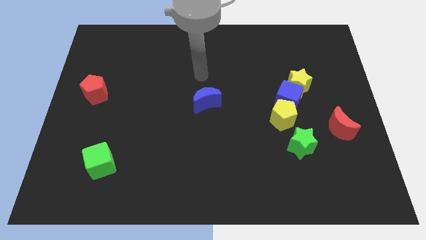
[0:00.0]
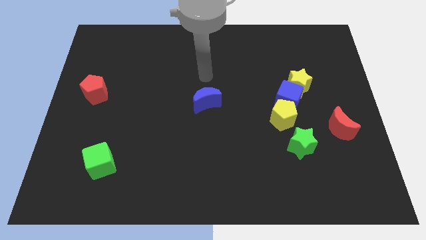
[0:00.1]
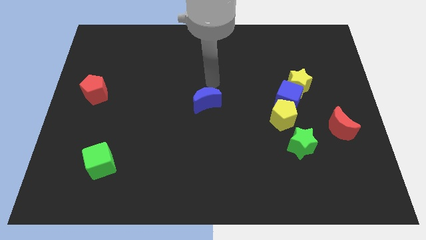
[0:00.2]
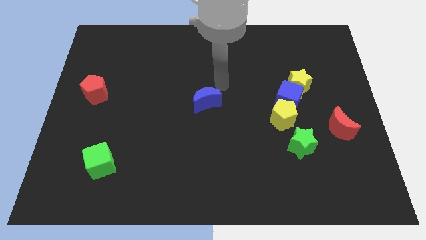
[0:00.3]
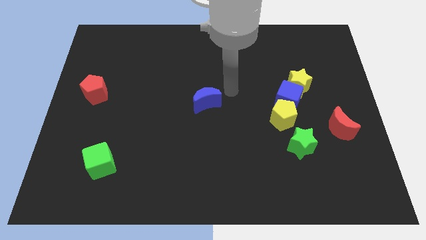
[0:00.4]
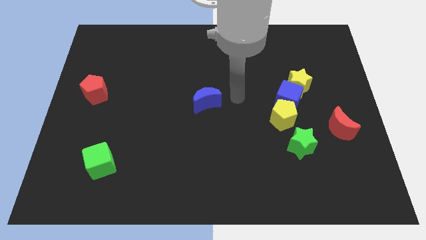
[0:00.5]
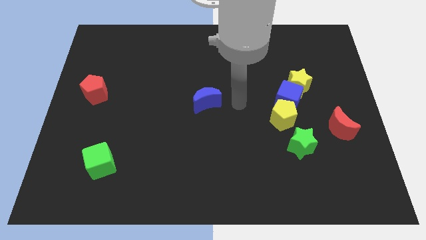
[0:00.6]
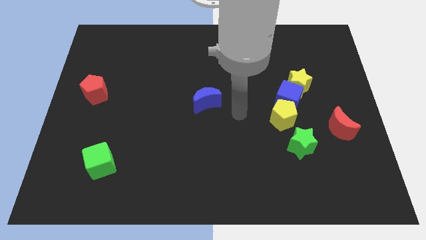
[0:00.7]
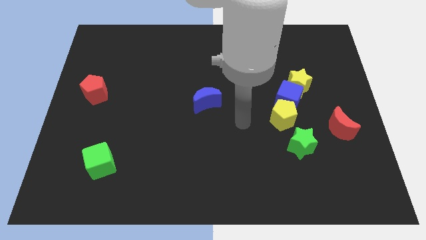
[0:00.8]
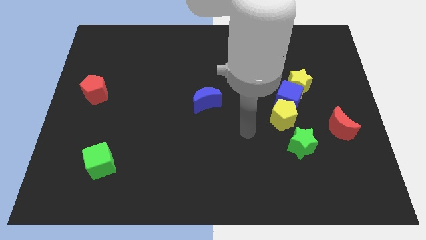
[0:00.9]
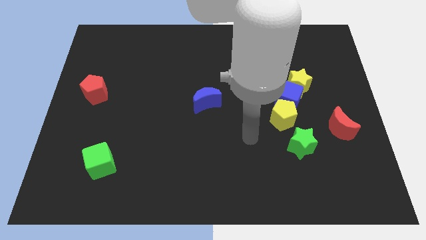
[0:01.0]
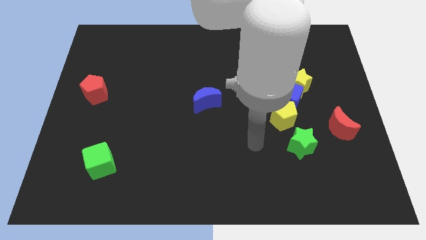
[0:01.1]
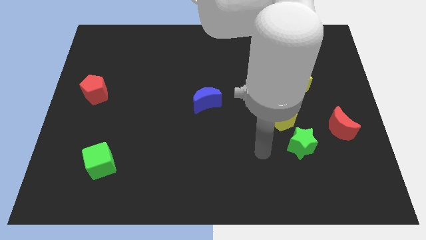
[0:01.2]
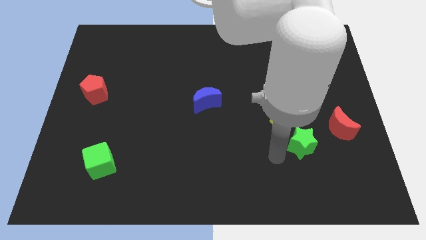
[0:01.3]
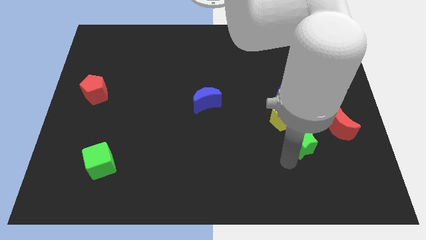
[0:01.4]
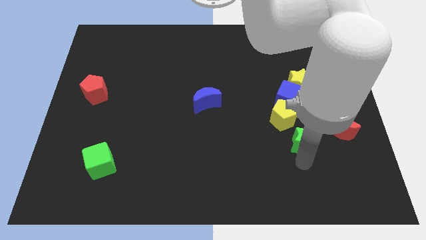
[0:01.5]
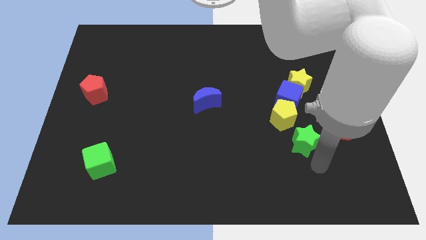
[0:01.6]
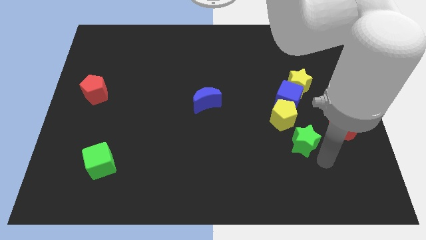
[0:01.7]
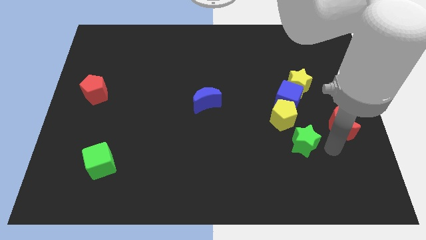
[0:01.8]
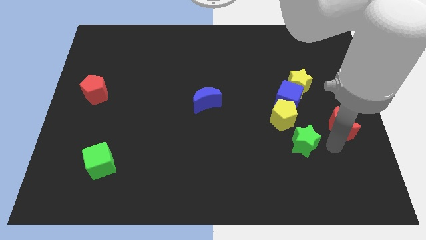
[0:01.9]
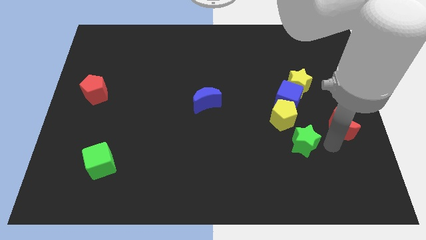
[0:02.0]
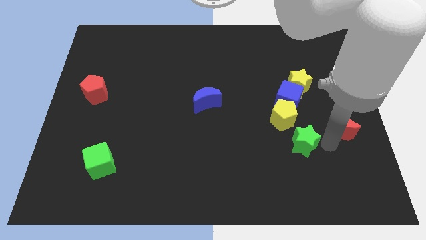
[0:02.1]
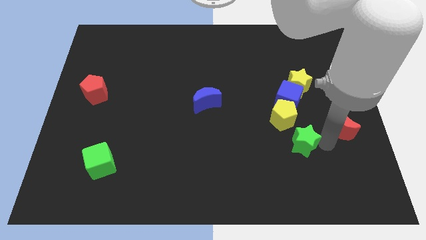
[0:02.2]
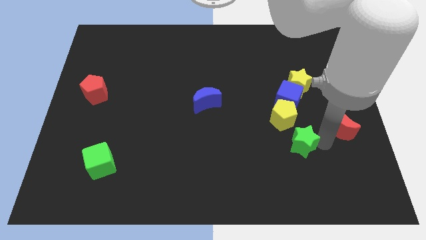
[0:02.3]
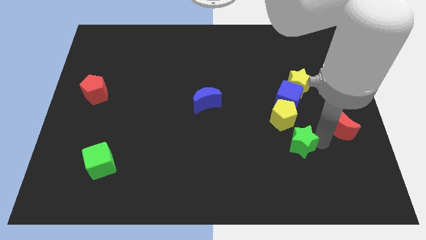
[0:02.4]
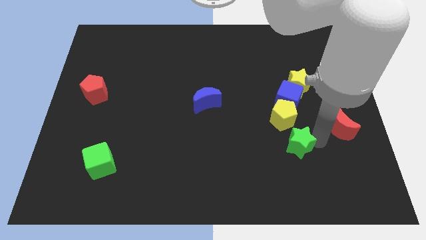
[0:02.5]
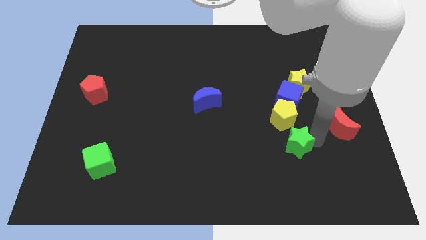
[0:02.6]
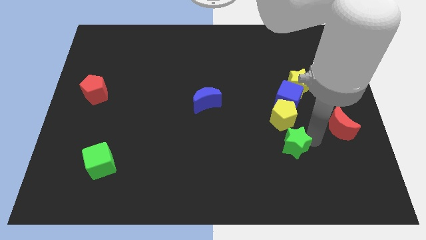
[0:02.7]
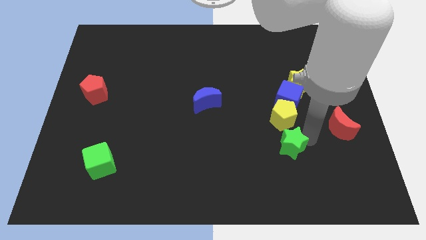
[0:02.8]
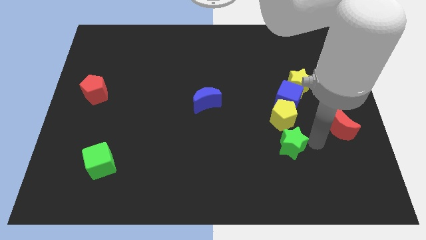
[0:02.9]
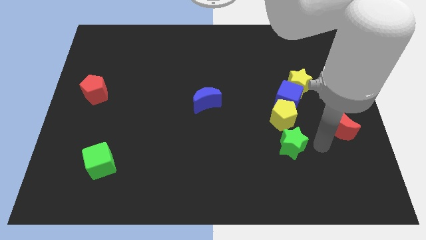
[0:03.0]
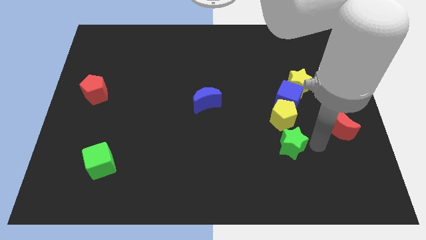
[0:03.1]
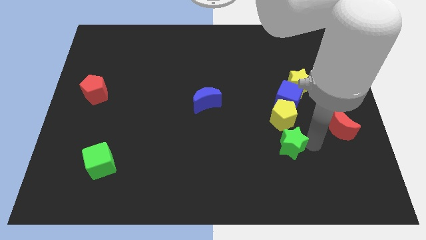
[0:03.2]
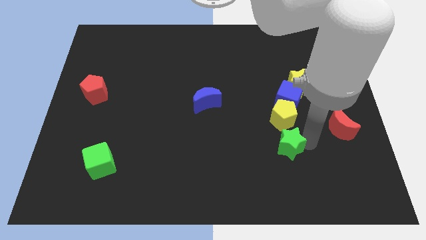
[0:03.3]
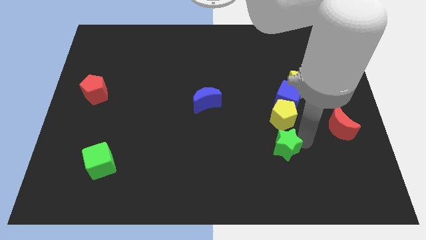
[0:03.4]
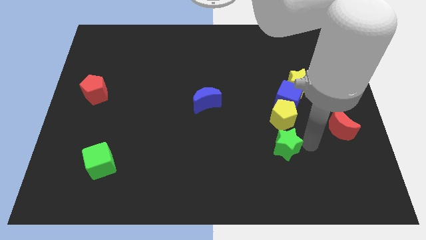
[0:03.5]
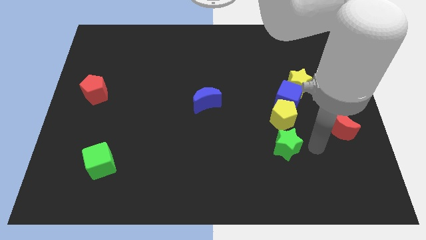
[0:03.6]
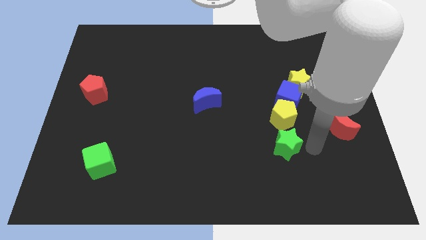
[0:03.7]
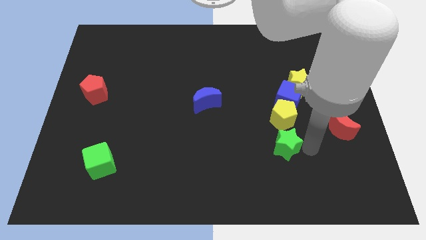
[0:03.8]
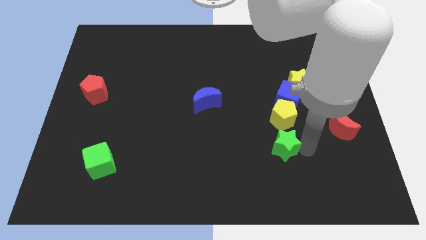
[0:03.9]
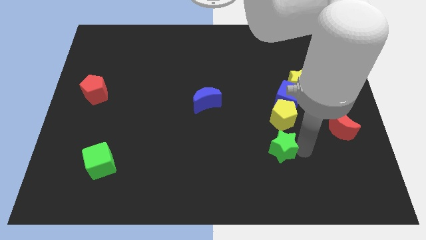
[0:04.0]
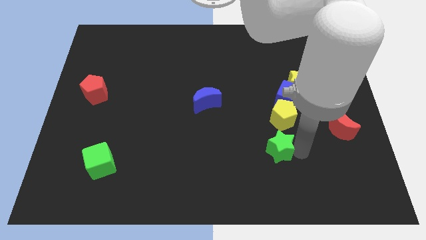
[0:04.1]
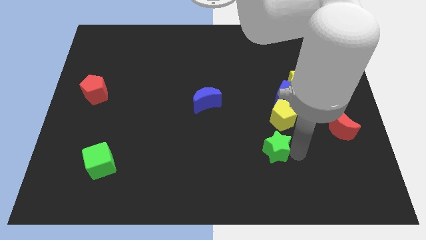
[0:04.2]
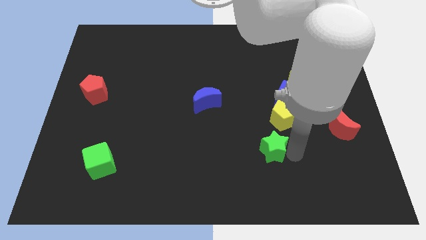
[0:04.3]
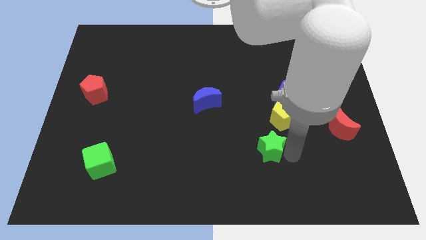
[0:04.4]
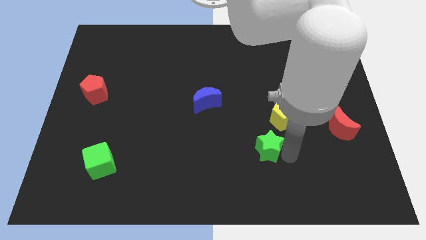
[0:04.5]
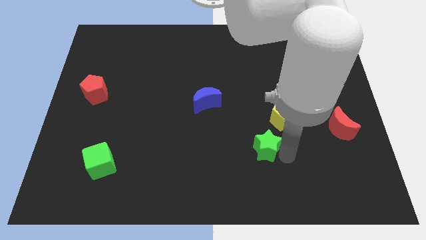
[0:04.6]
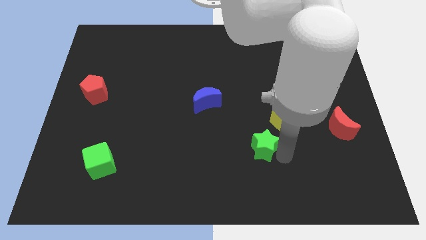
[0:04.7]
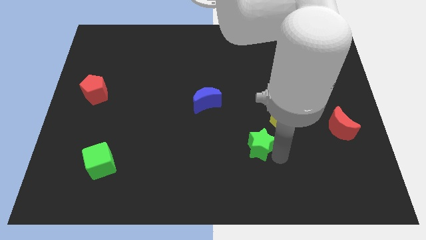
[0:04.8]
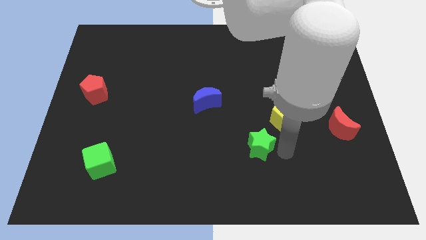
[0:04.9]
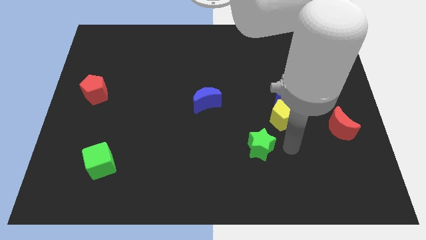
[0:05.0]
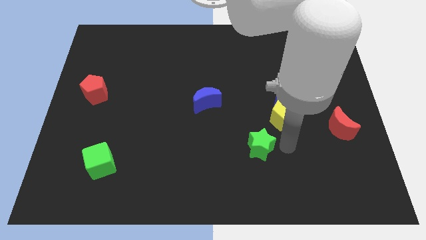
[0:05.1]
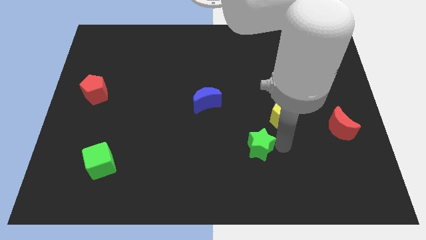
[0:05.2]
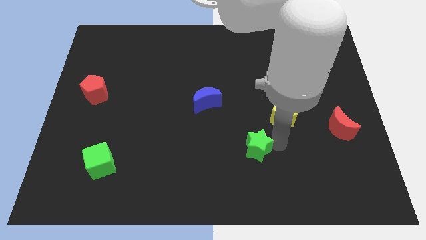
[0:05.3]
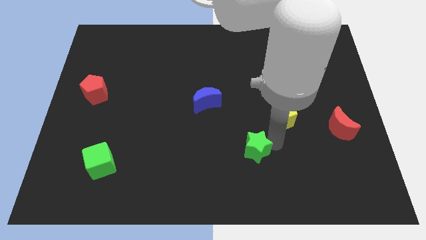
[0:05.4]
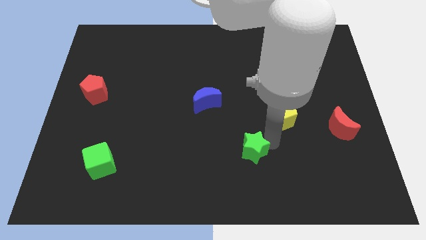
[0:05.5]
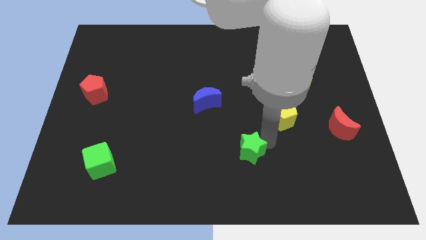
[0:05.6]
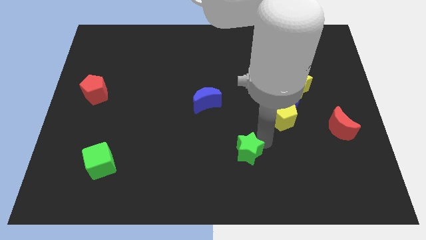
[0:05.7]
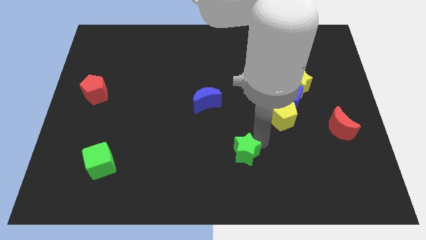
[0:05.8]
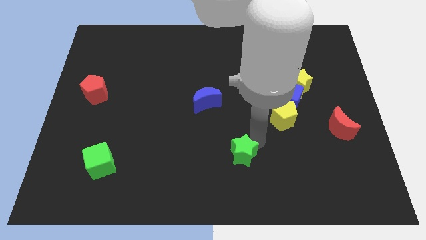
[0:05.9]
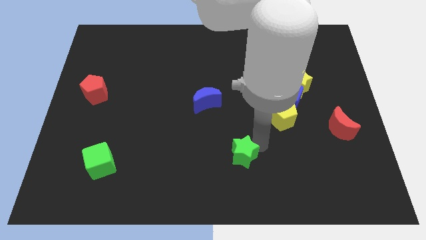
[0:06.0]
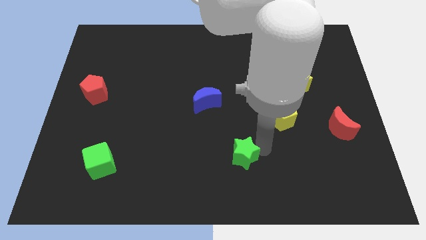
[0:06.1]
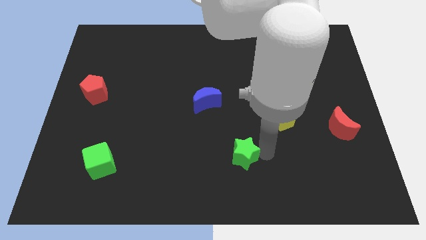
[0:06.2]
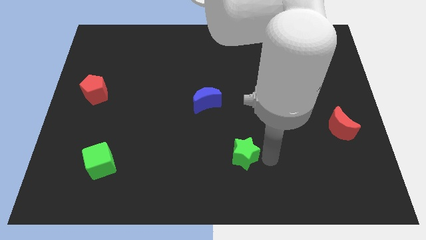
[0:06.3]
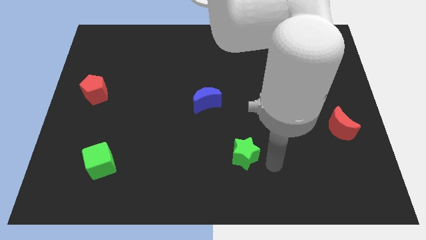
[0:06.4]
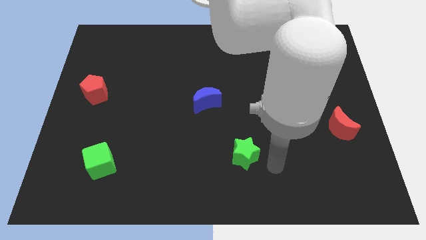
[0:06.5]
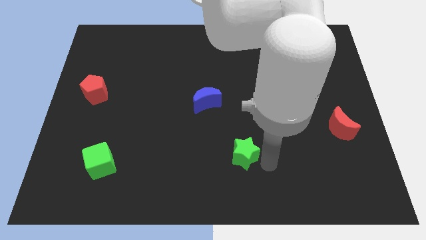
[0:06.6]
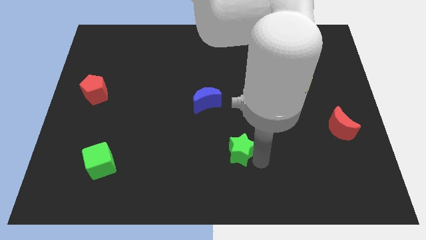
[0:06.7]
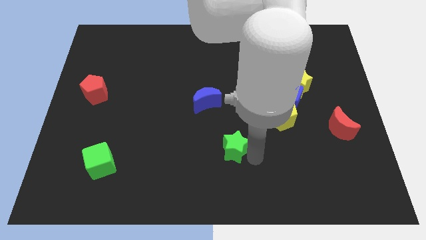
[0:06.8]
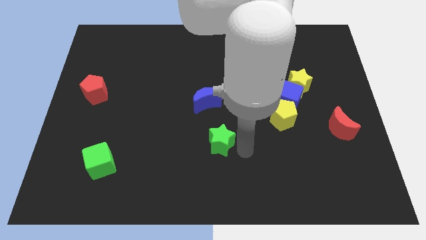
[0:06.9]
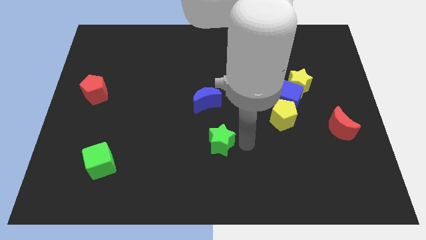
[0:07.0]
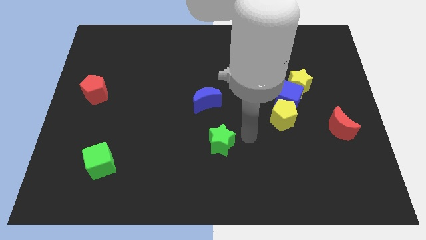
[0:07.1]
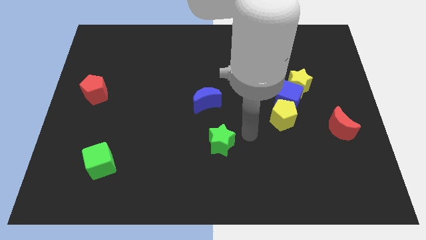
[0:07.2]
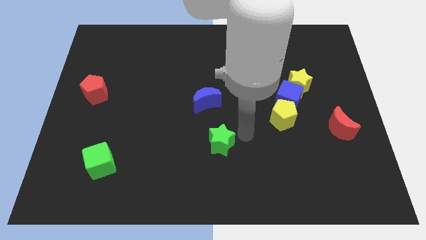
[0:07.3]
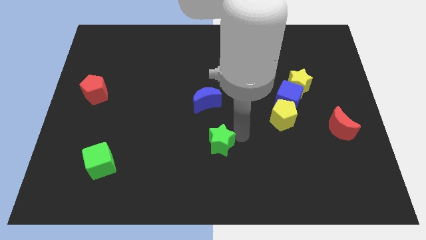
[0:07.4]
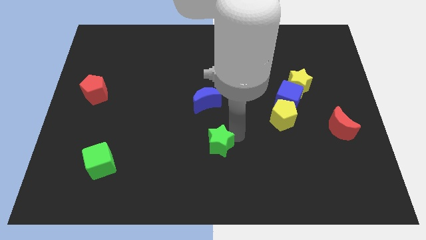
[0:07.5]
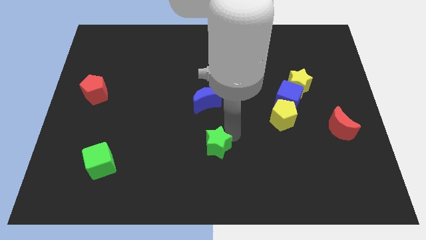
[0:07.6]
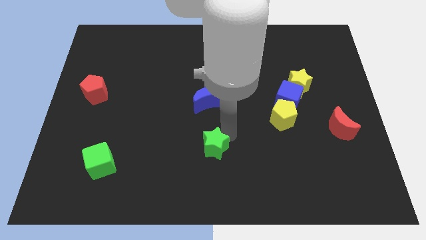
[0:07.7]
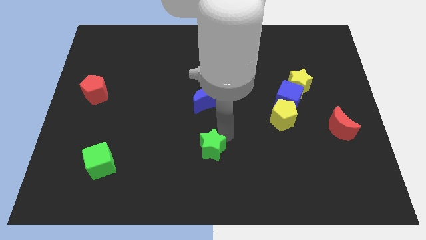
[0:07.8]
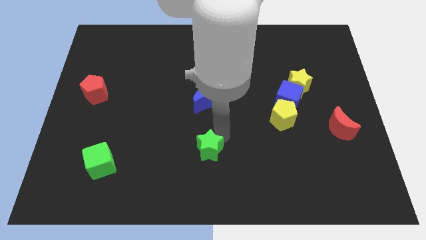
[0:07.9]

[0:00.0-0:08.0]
slide the green star left

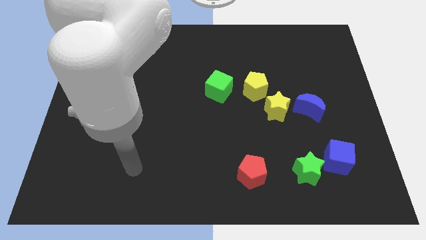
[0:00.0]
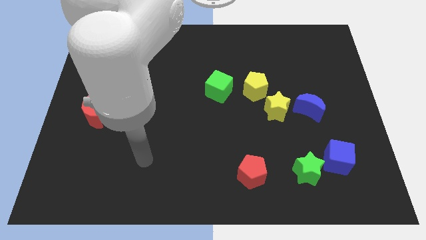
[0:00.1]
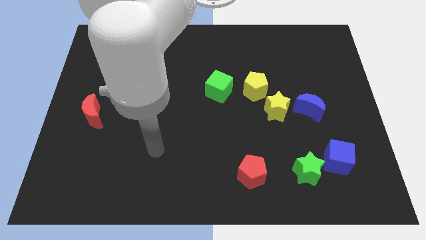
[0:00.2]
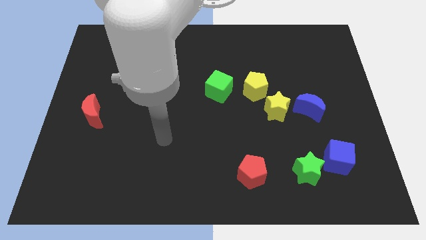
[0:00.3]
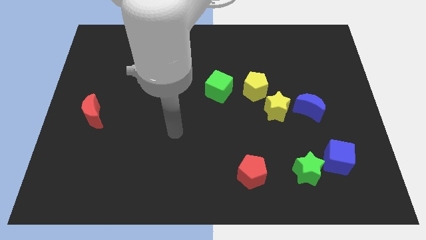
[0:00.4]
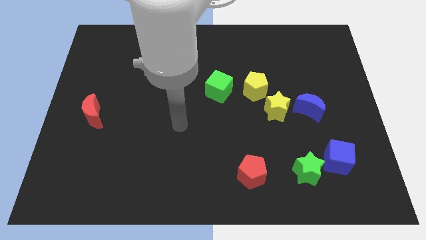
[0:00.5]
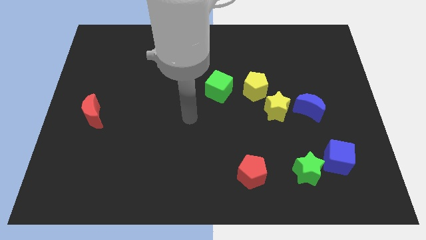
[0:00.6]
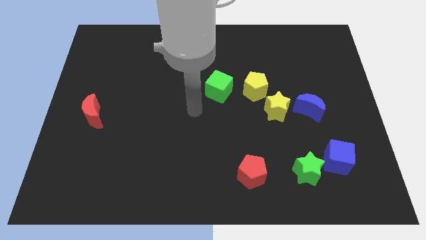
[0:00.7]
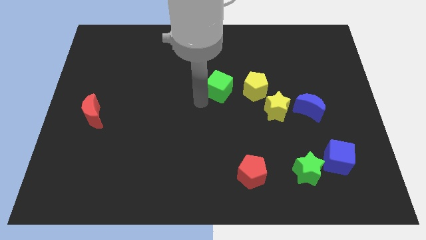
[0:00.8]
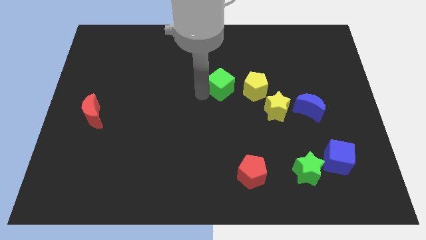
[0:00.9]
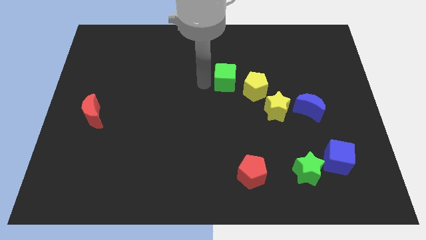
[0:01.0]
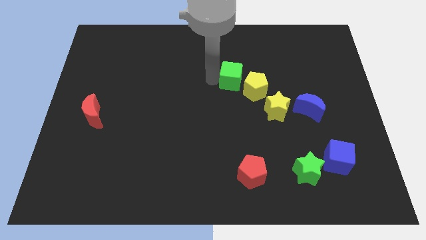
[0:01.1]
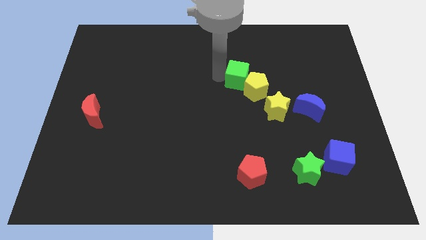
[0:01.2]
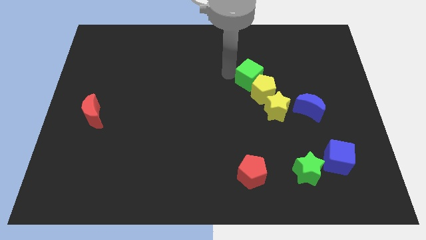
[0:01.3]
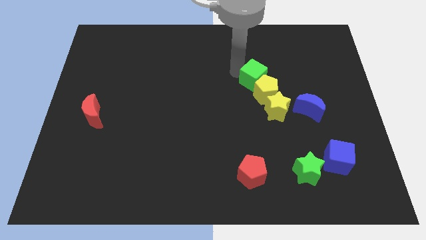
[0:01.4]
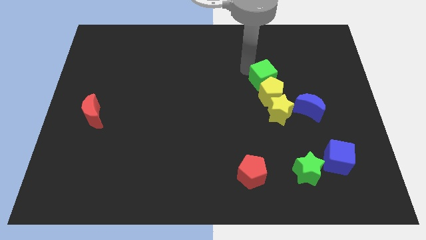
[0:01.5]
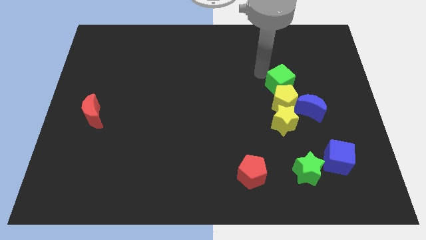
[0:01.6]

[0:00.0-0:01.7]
slightly move the yellow pentagon down and right
